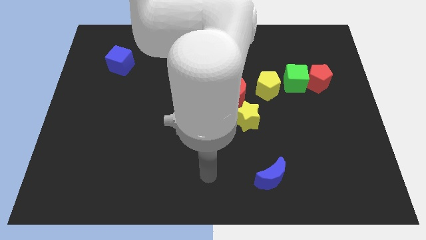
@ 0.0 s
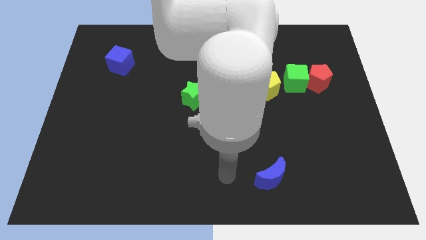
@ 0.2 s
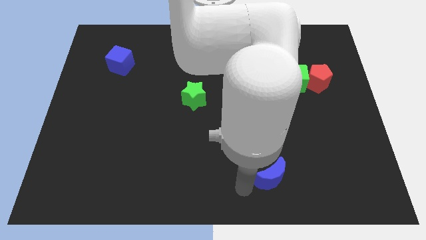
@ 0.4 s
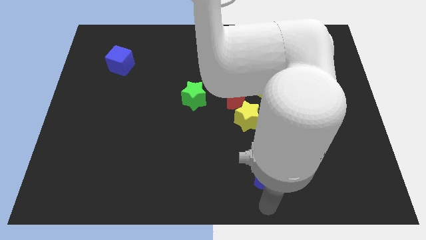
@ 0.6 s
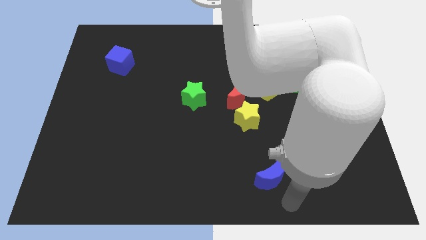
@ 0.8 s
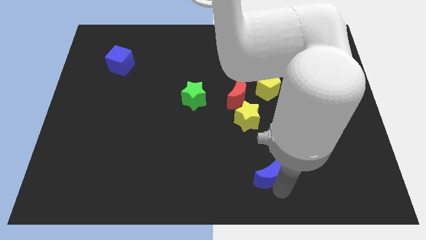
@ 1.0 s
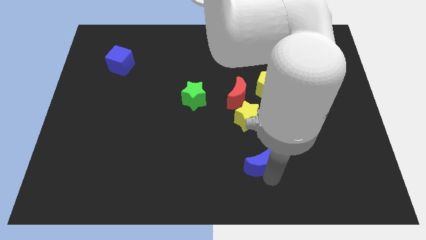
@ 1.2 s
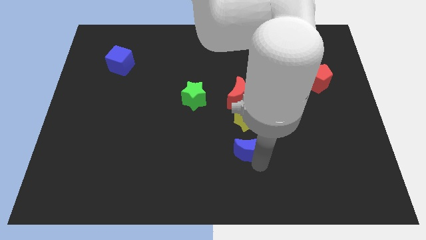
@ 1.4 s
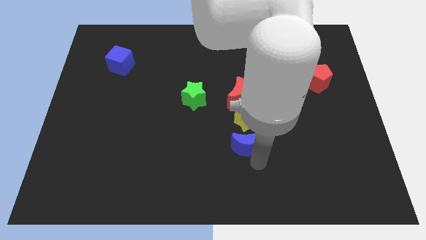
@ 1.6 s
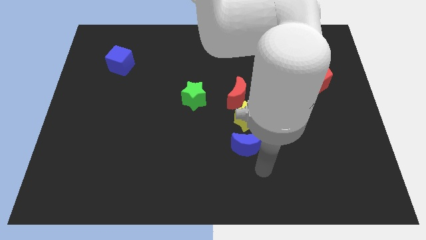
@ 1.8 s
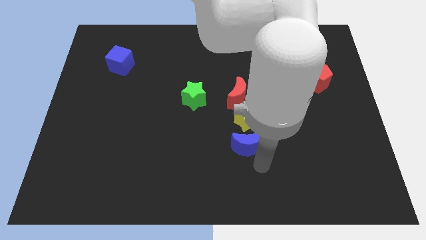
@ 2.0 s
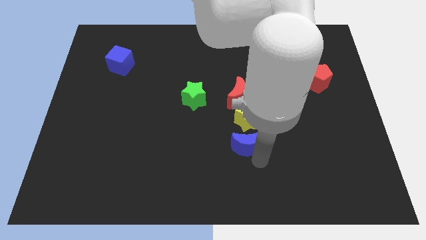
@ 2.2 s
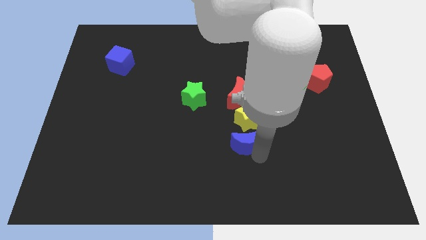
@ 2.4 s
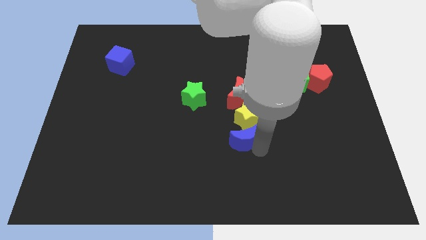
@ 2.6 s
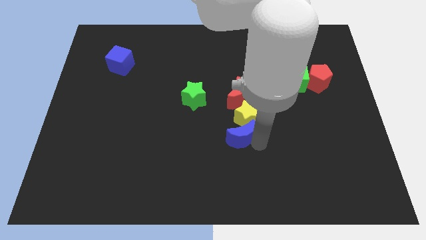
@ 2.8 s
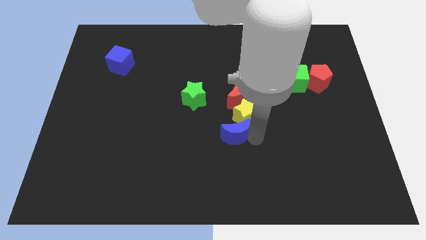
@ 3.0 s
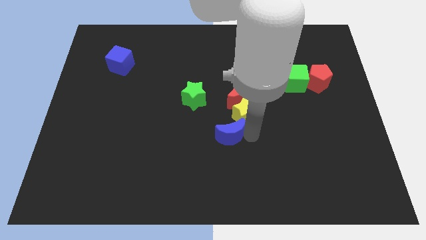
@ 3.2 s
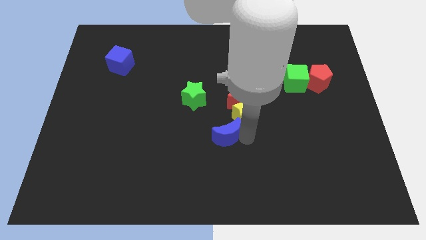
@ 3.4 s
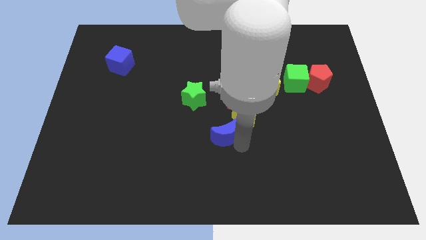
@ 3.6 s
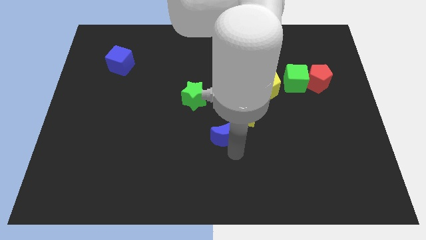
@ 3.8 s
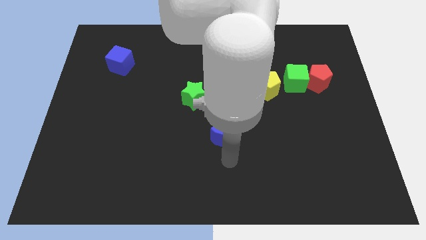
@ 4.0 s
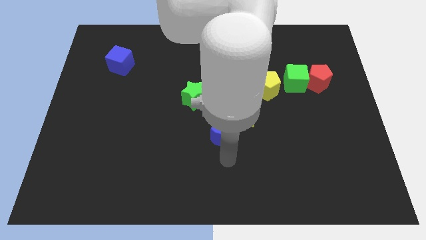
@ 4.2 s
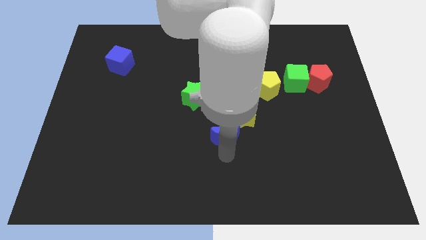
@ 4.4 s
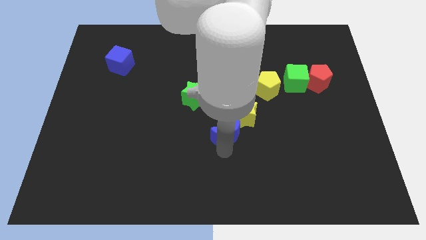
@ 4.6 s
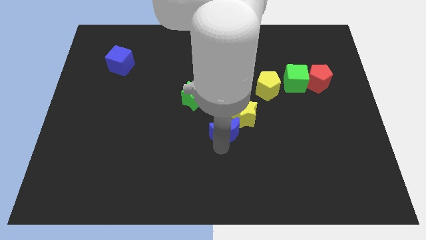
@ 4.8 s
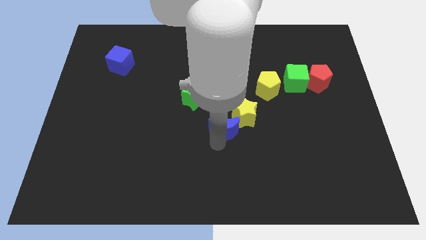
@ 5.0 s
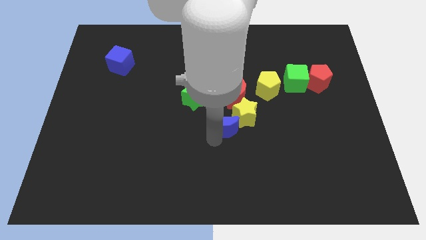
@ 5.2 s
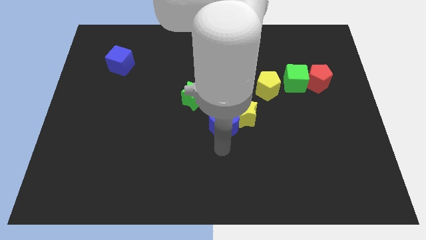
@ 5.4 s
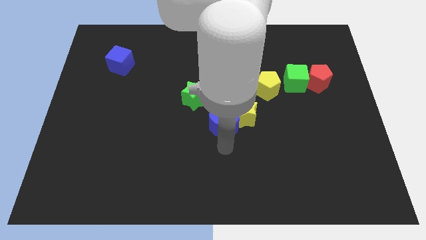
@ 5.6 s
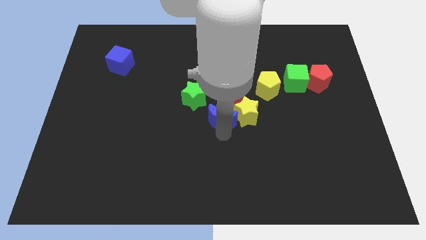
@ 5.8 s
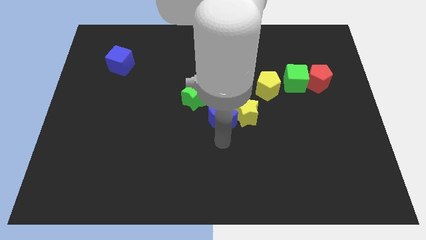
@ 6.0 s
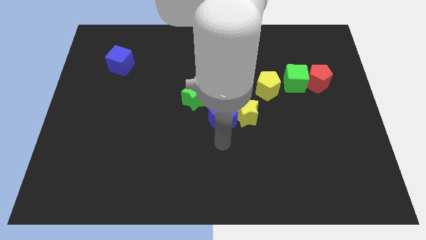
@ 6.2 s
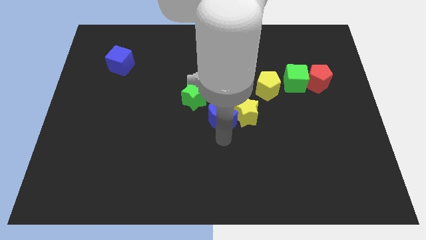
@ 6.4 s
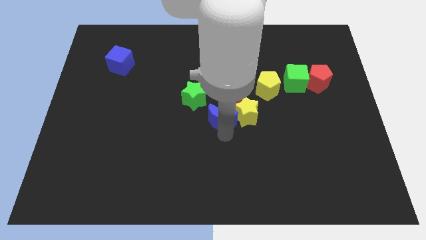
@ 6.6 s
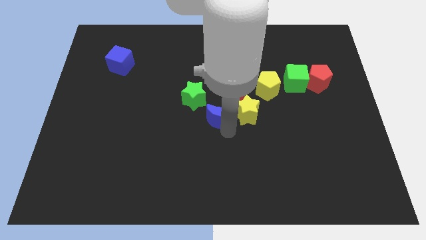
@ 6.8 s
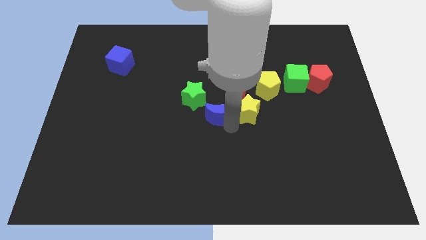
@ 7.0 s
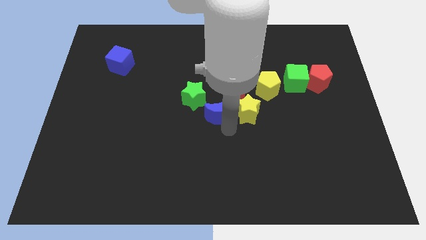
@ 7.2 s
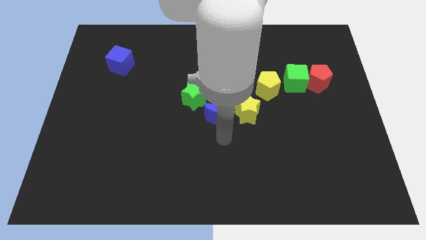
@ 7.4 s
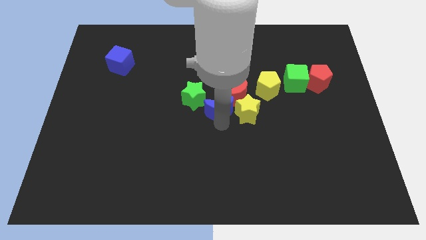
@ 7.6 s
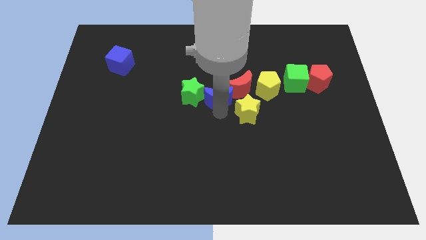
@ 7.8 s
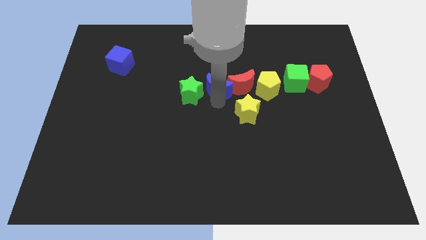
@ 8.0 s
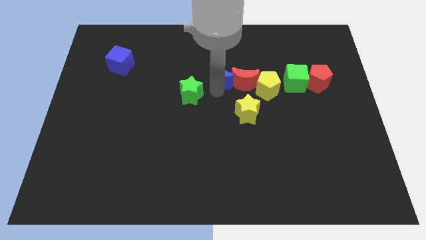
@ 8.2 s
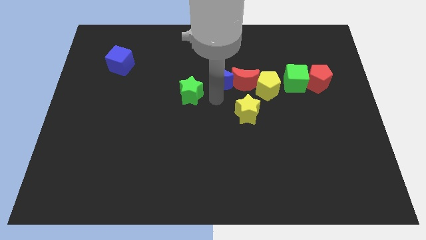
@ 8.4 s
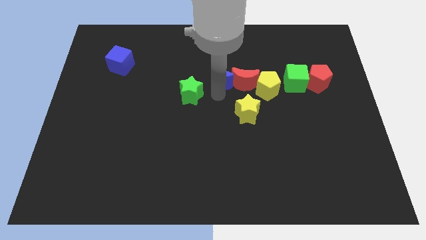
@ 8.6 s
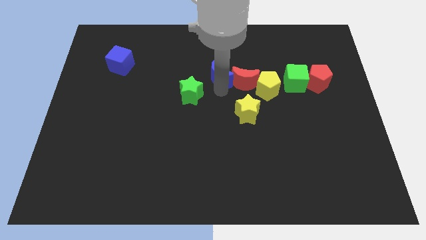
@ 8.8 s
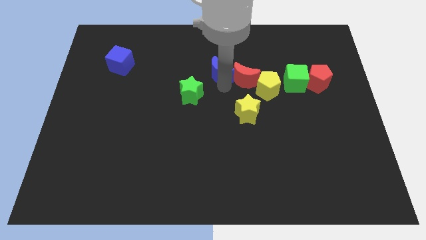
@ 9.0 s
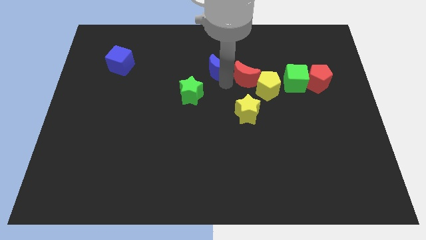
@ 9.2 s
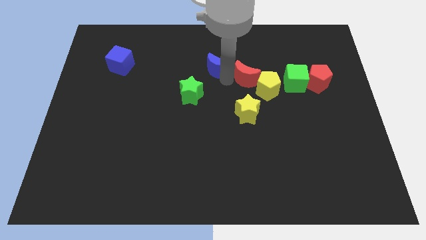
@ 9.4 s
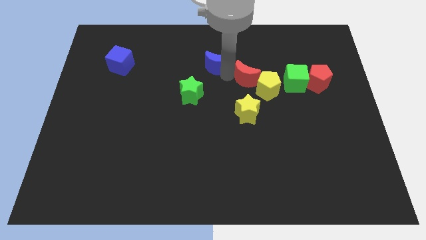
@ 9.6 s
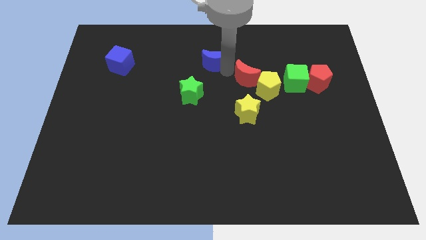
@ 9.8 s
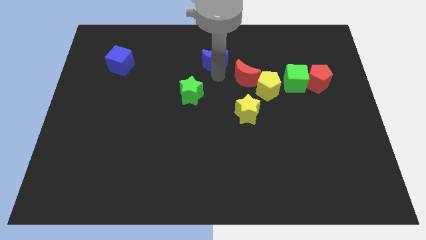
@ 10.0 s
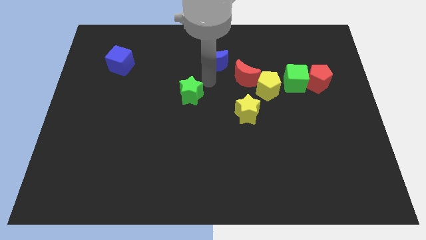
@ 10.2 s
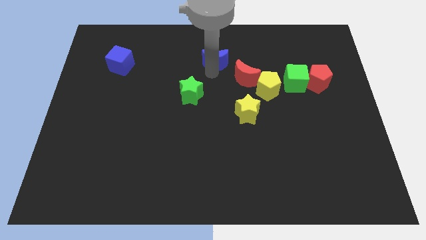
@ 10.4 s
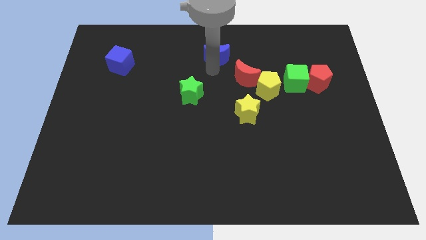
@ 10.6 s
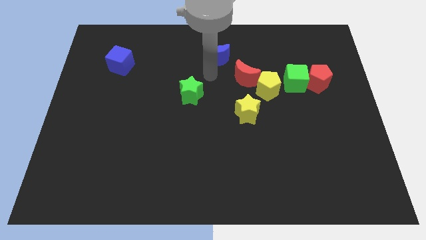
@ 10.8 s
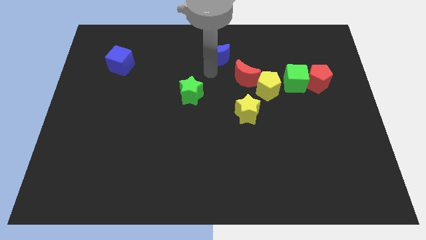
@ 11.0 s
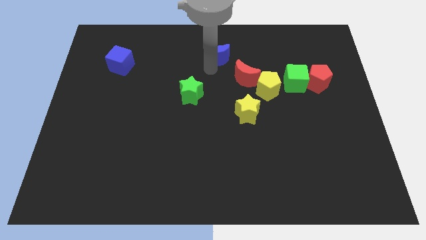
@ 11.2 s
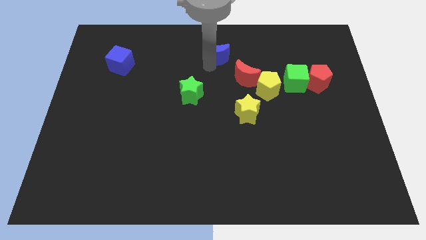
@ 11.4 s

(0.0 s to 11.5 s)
slide the blue moon to the top
